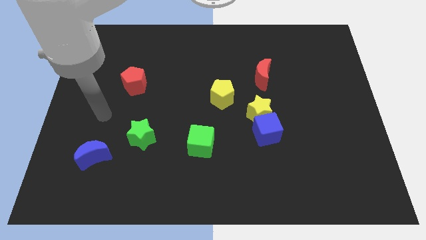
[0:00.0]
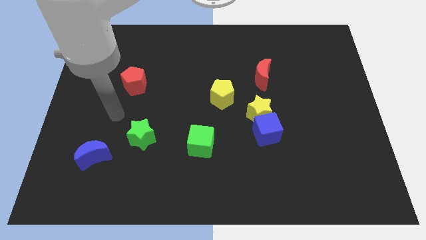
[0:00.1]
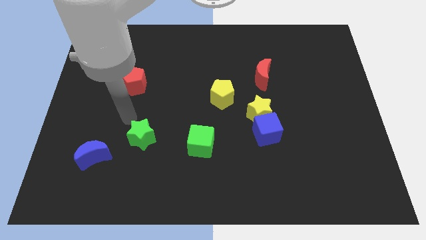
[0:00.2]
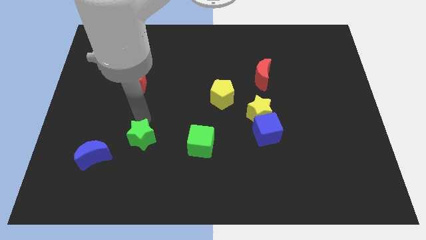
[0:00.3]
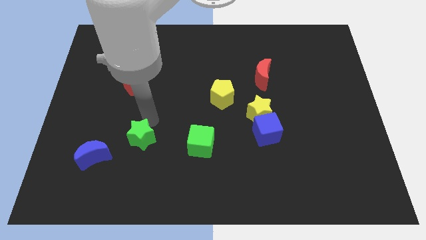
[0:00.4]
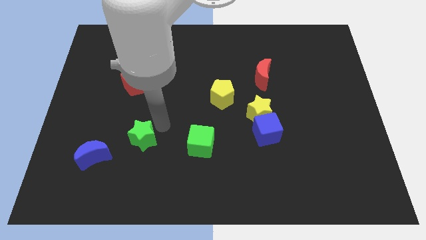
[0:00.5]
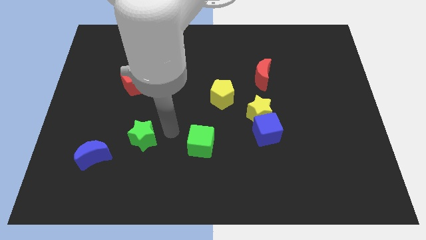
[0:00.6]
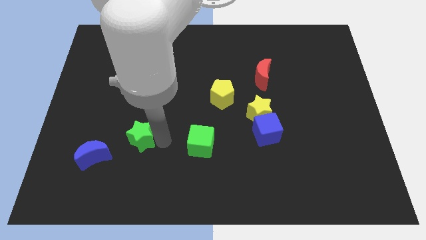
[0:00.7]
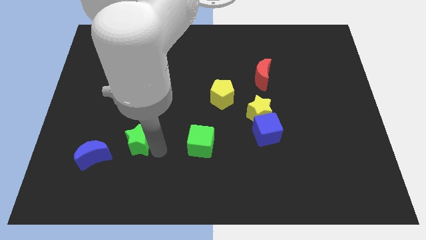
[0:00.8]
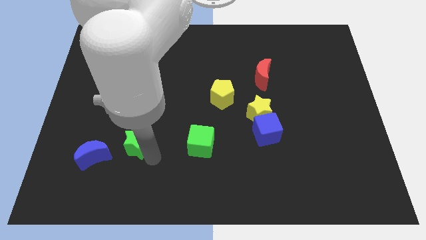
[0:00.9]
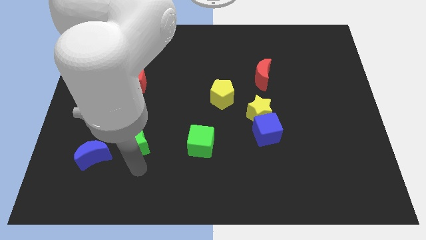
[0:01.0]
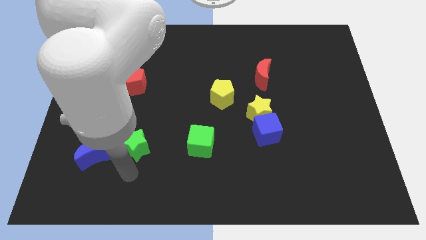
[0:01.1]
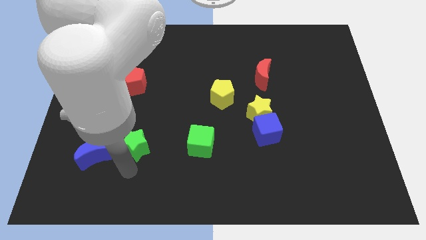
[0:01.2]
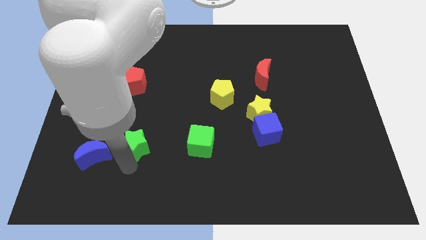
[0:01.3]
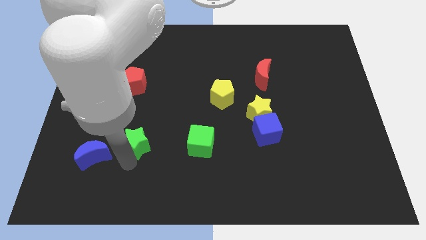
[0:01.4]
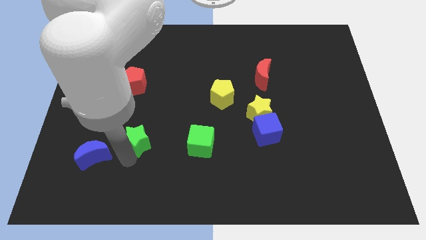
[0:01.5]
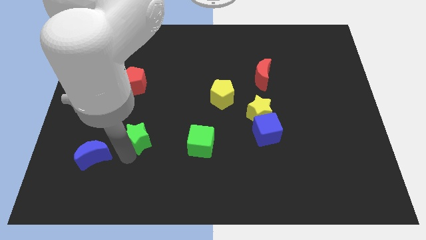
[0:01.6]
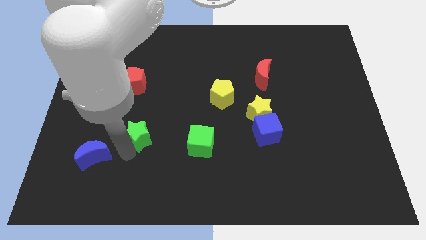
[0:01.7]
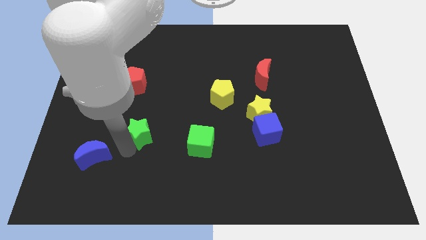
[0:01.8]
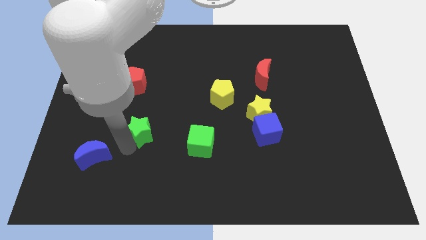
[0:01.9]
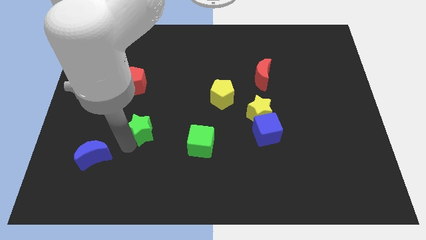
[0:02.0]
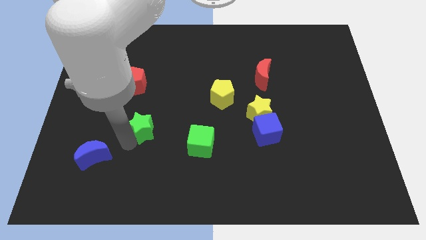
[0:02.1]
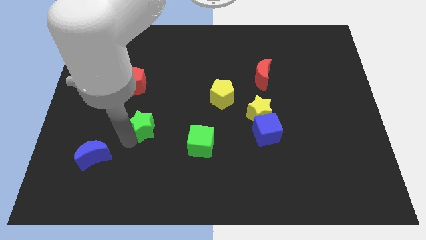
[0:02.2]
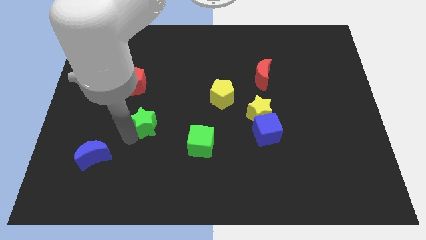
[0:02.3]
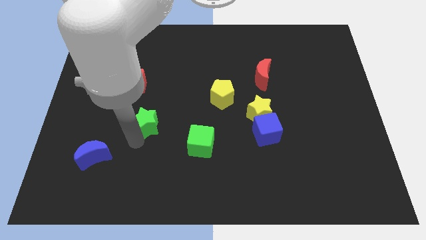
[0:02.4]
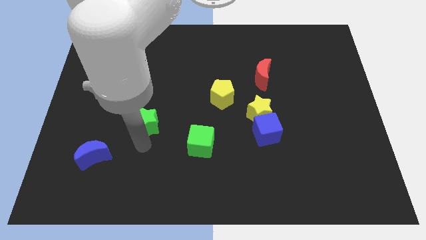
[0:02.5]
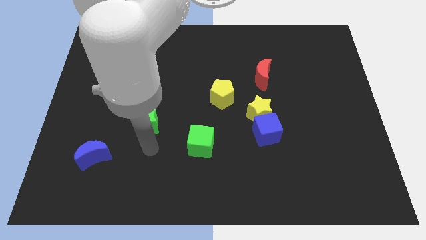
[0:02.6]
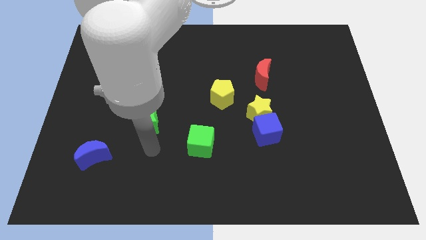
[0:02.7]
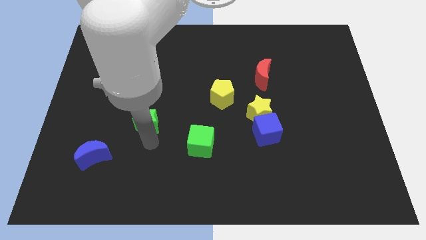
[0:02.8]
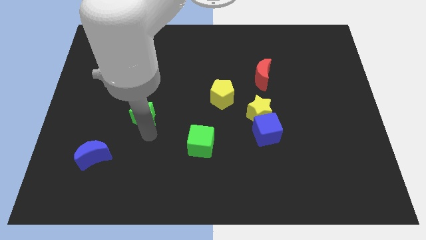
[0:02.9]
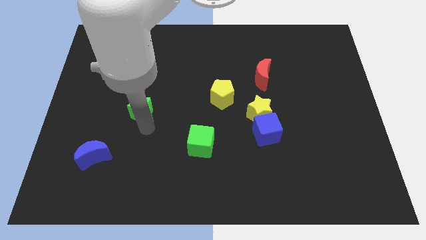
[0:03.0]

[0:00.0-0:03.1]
slightly move the green star up

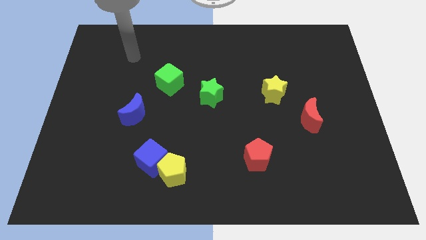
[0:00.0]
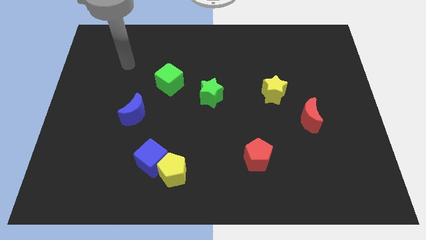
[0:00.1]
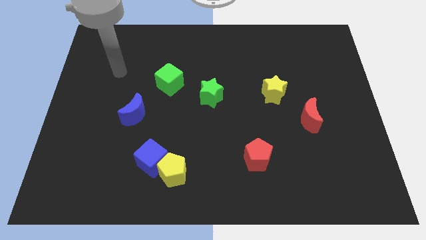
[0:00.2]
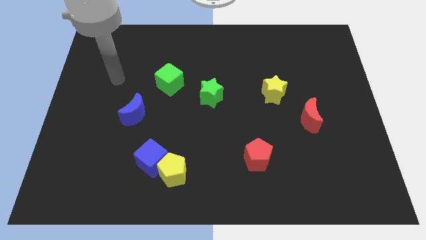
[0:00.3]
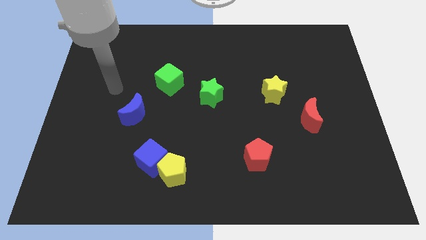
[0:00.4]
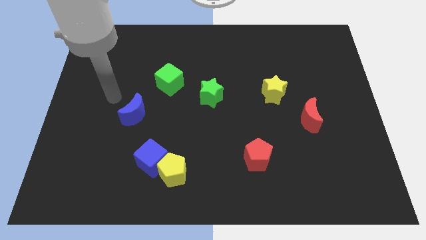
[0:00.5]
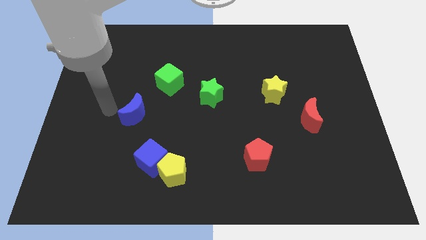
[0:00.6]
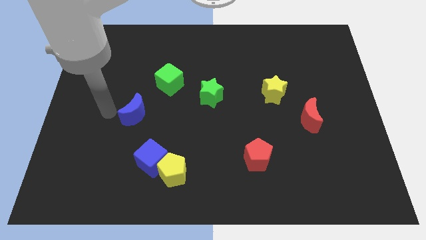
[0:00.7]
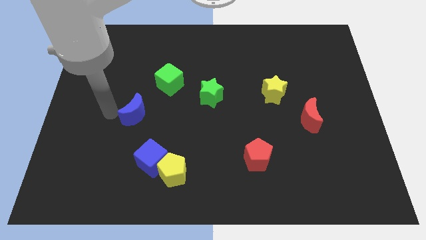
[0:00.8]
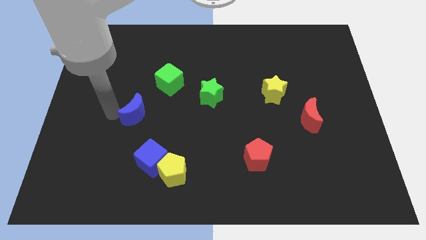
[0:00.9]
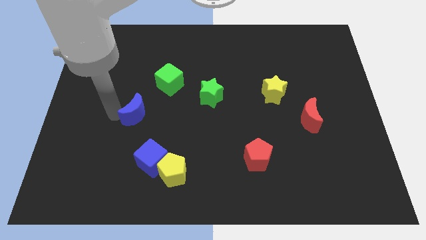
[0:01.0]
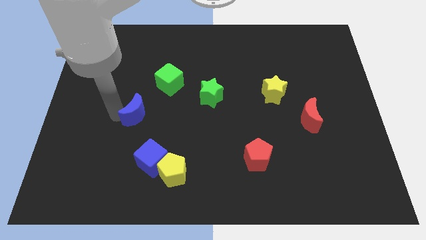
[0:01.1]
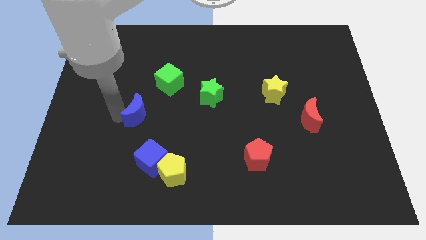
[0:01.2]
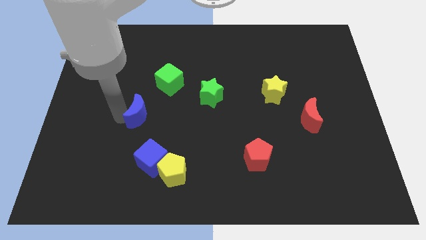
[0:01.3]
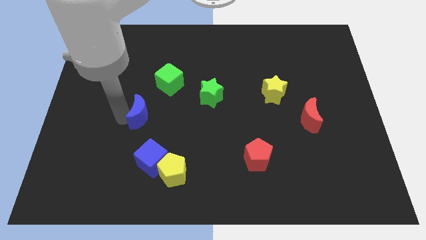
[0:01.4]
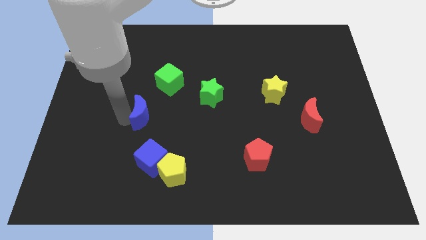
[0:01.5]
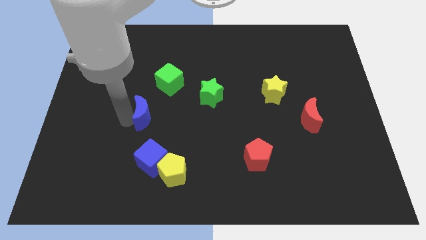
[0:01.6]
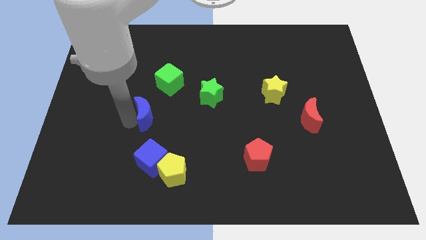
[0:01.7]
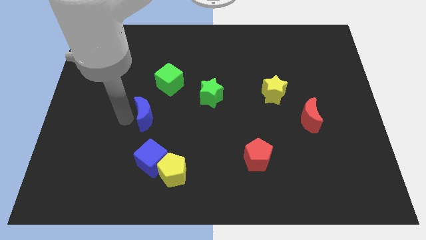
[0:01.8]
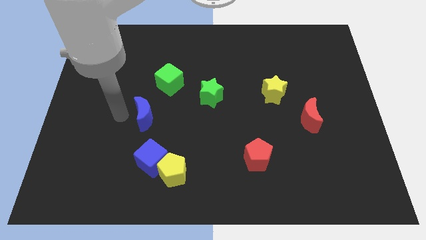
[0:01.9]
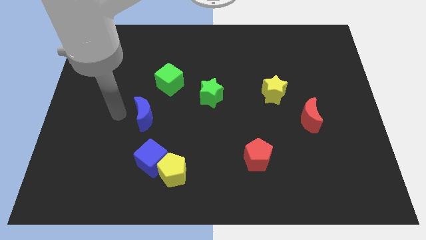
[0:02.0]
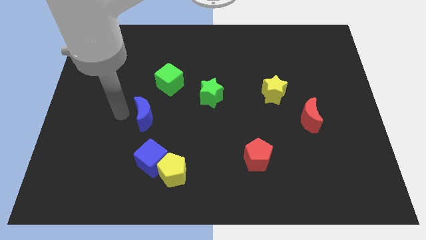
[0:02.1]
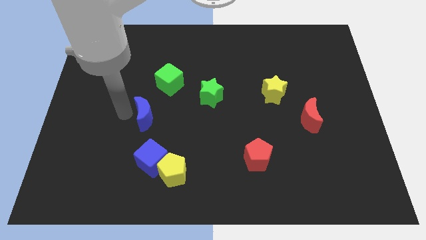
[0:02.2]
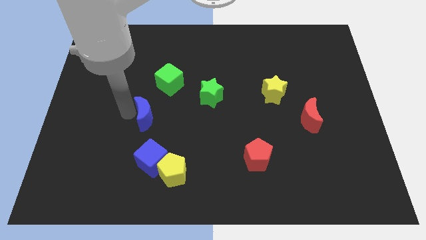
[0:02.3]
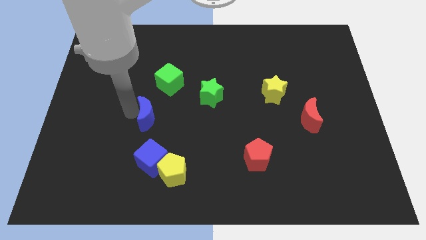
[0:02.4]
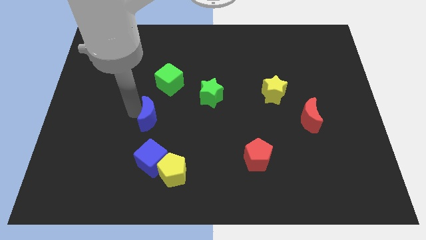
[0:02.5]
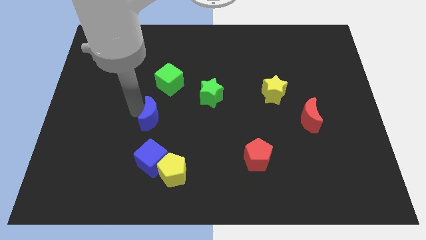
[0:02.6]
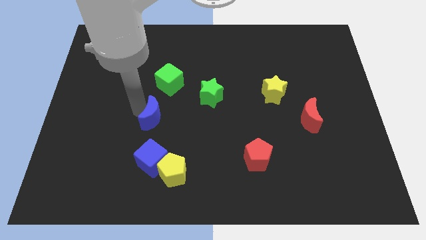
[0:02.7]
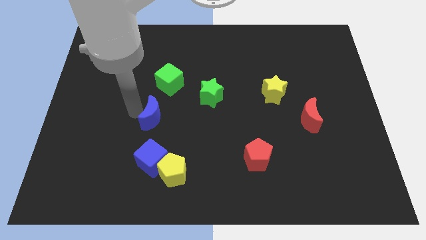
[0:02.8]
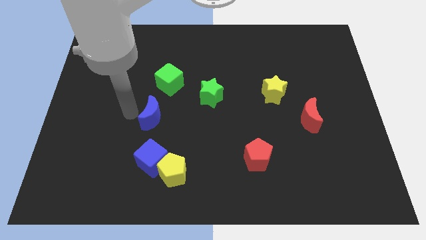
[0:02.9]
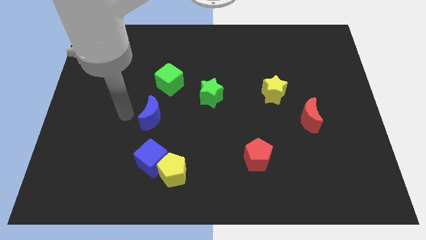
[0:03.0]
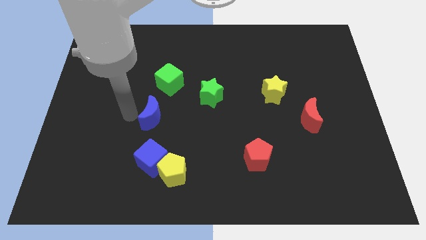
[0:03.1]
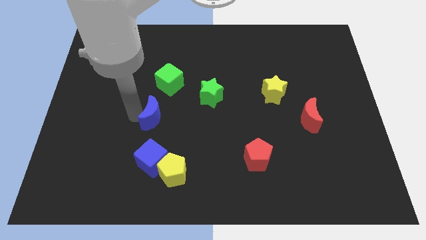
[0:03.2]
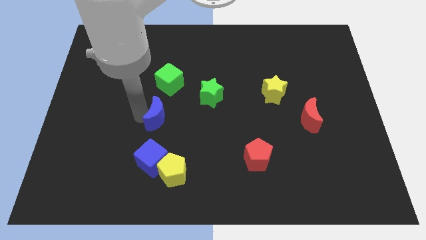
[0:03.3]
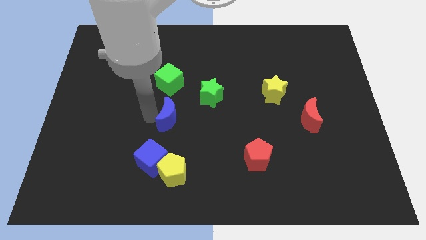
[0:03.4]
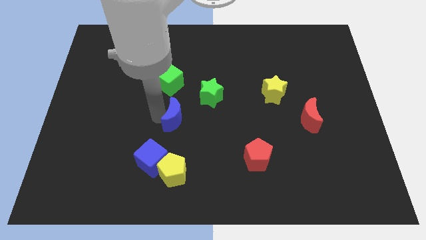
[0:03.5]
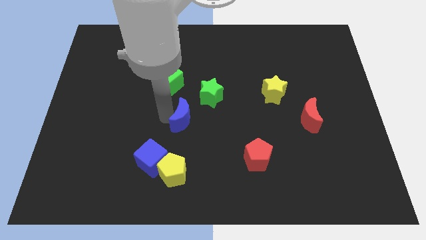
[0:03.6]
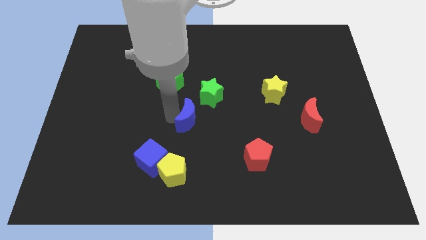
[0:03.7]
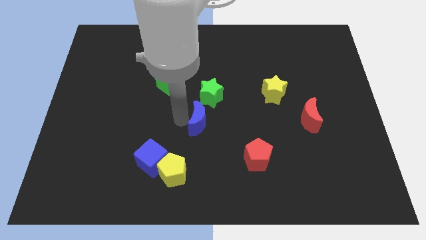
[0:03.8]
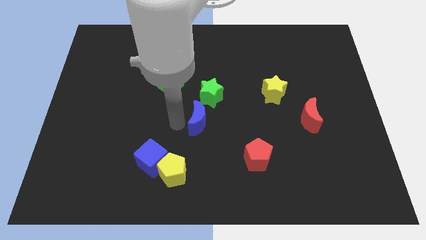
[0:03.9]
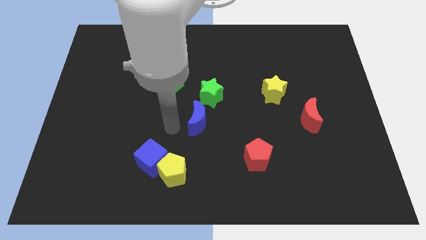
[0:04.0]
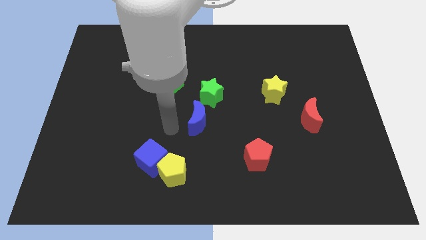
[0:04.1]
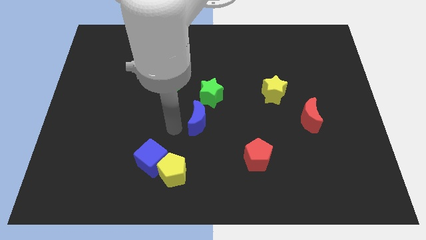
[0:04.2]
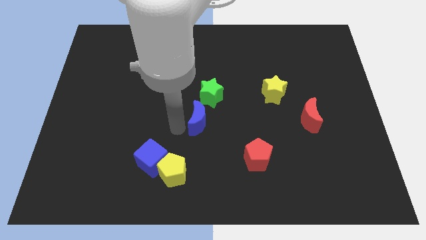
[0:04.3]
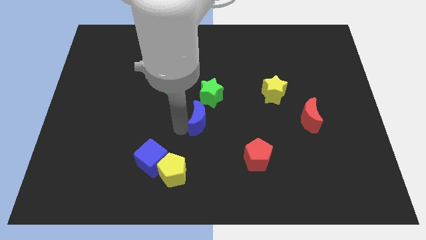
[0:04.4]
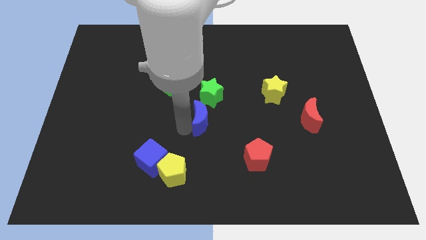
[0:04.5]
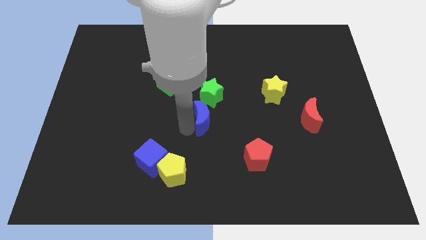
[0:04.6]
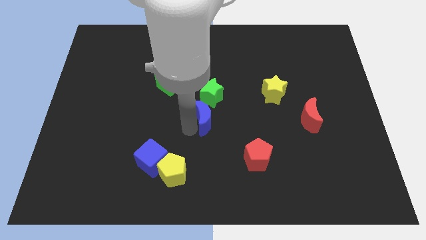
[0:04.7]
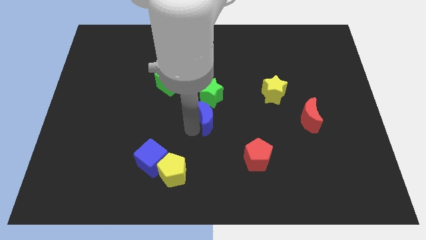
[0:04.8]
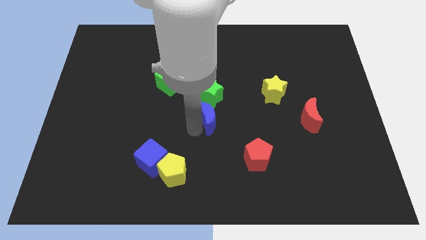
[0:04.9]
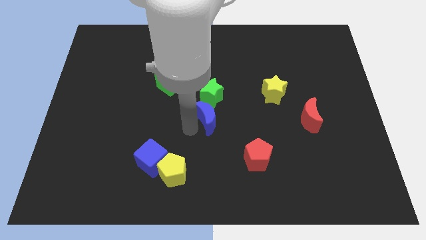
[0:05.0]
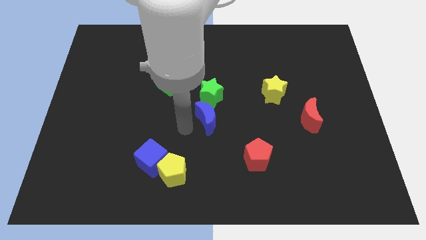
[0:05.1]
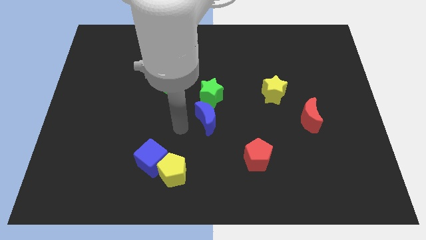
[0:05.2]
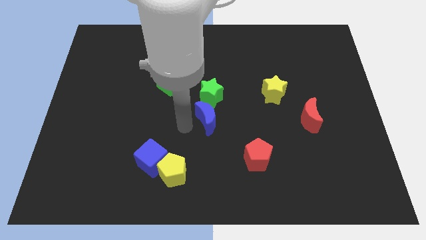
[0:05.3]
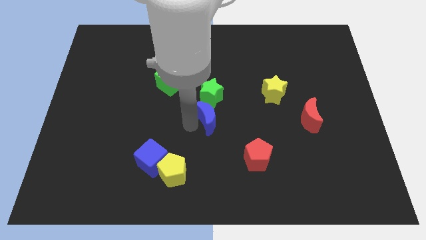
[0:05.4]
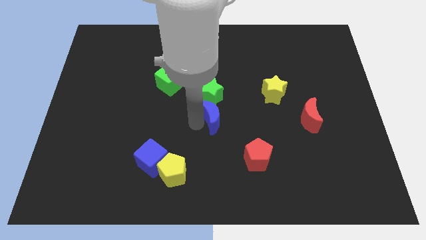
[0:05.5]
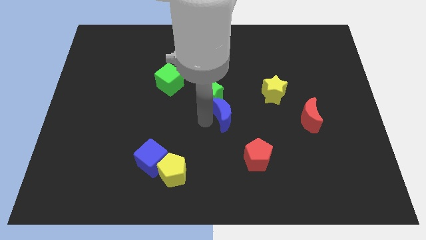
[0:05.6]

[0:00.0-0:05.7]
slide the blue moon to the right
